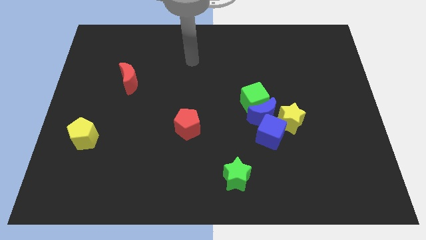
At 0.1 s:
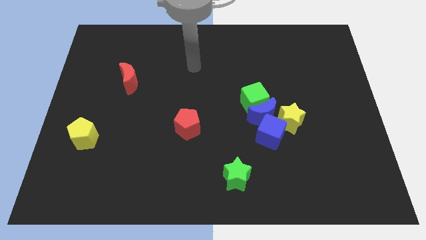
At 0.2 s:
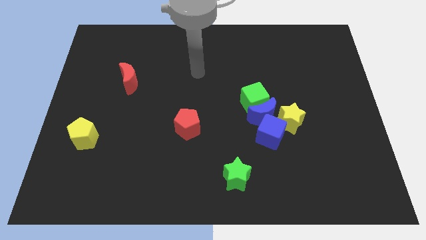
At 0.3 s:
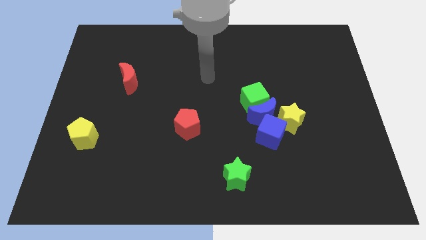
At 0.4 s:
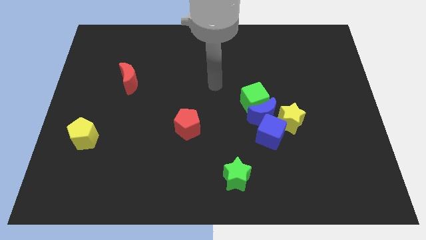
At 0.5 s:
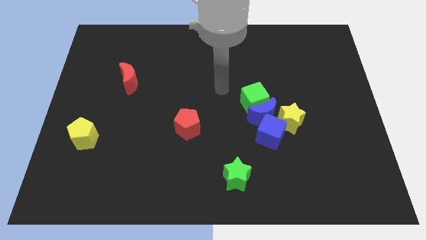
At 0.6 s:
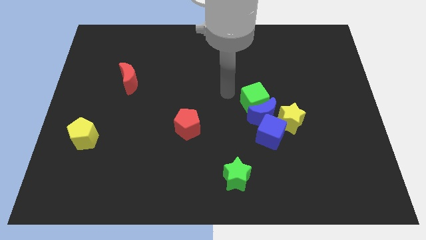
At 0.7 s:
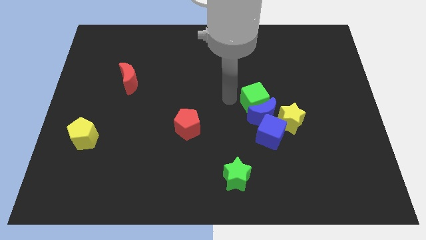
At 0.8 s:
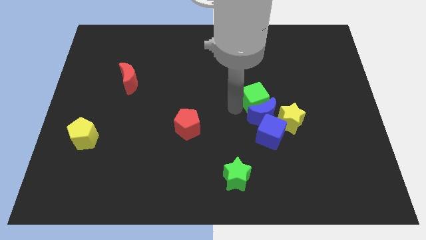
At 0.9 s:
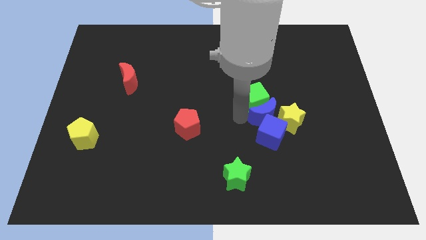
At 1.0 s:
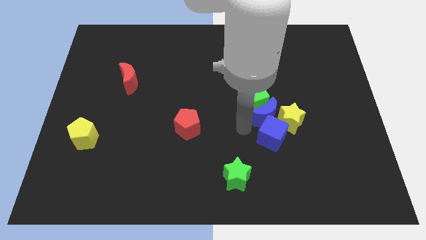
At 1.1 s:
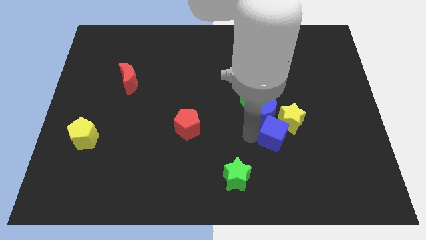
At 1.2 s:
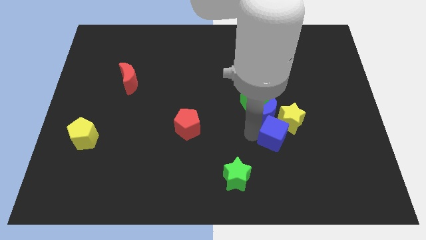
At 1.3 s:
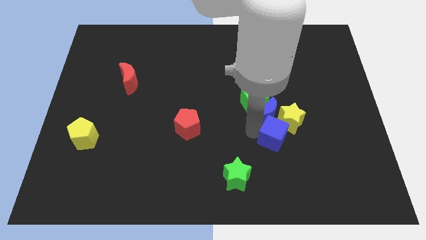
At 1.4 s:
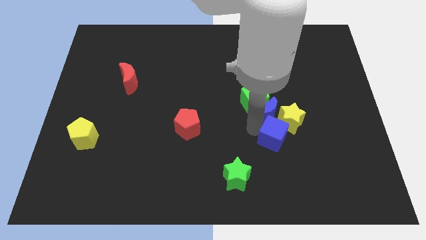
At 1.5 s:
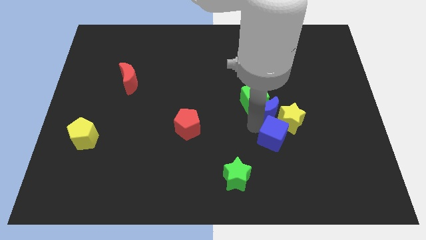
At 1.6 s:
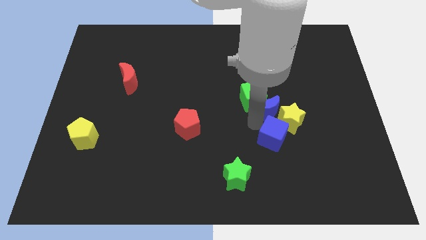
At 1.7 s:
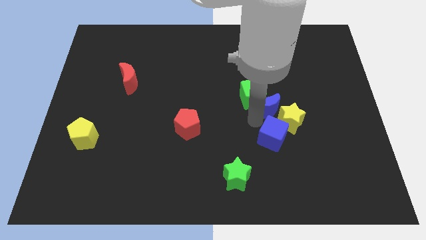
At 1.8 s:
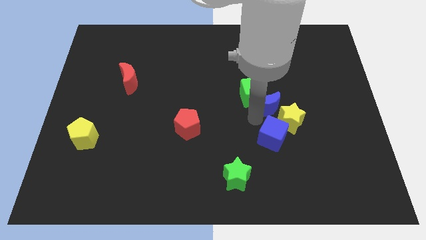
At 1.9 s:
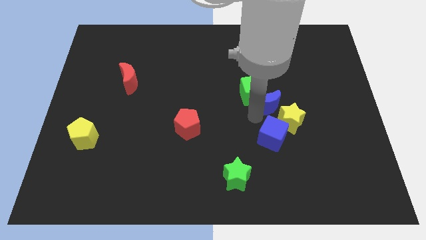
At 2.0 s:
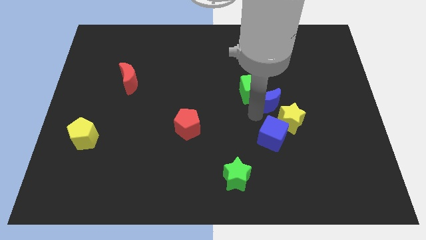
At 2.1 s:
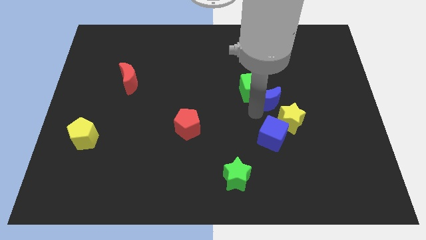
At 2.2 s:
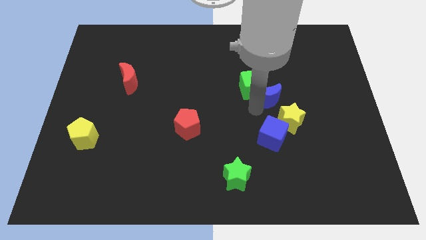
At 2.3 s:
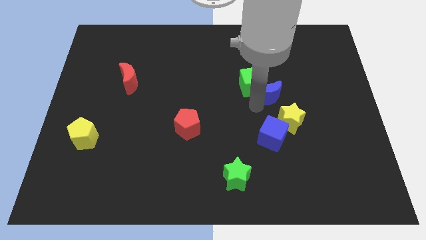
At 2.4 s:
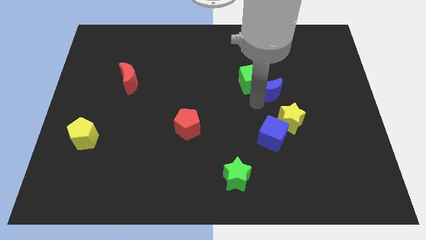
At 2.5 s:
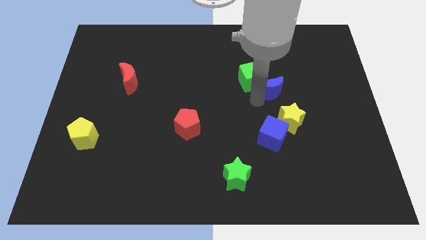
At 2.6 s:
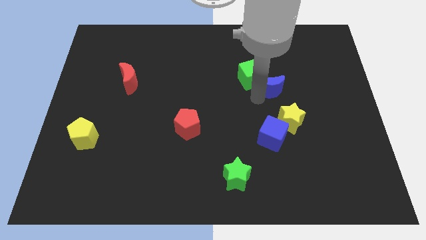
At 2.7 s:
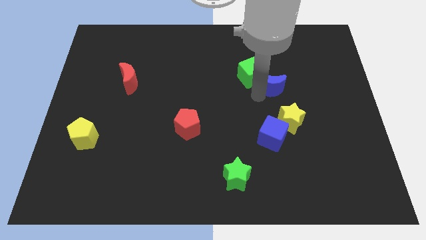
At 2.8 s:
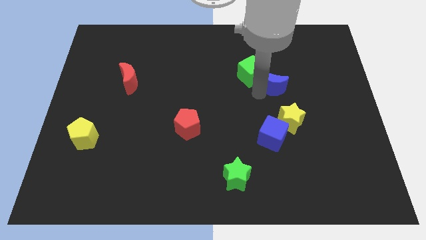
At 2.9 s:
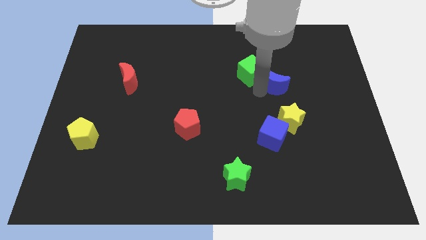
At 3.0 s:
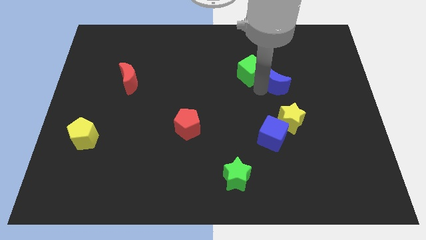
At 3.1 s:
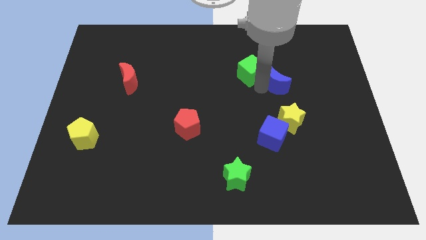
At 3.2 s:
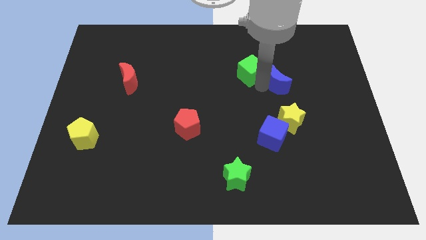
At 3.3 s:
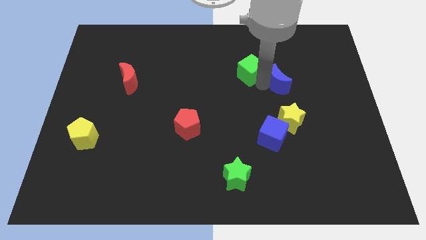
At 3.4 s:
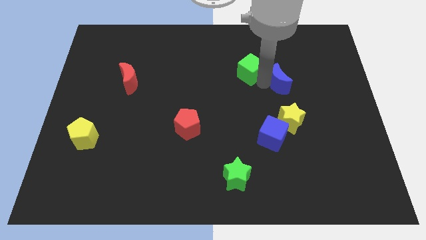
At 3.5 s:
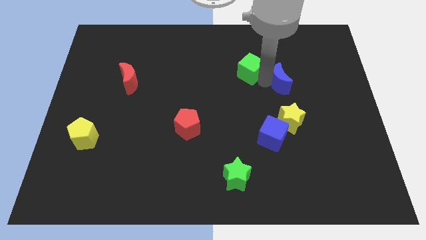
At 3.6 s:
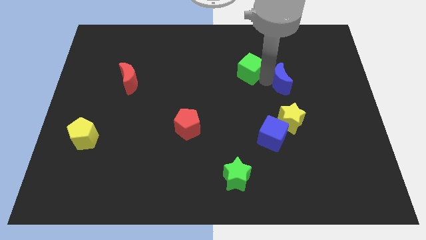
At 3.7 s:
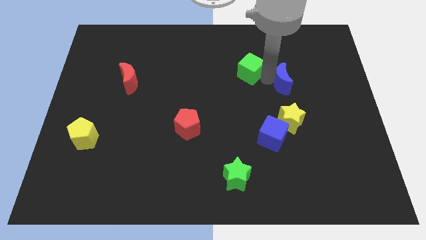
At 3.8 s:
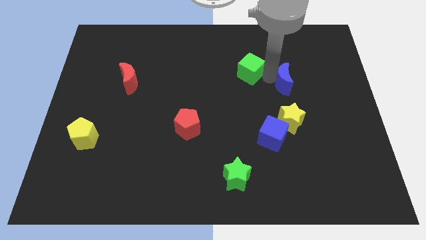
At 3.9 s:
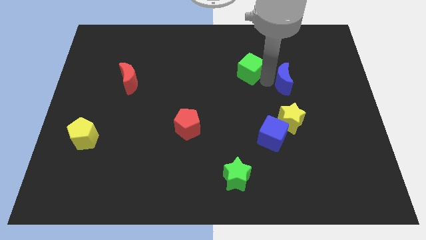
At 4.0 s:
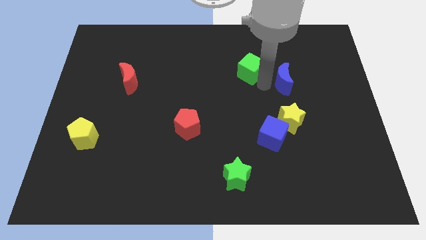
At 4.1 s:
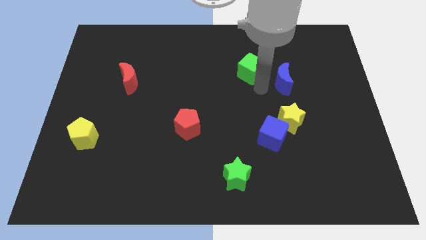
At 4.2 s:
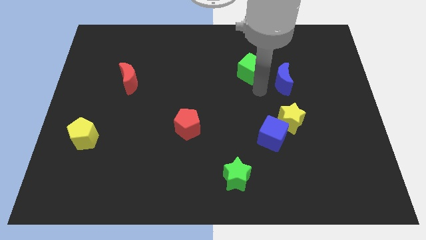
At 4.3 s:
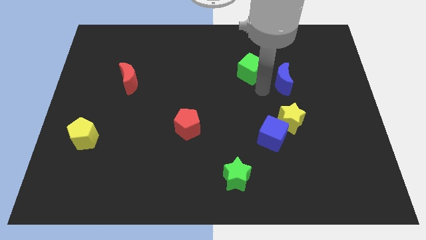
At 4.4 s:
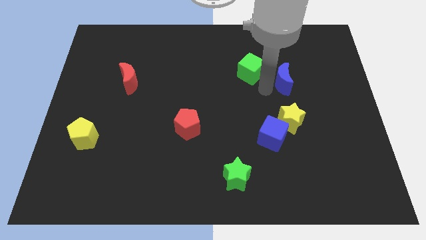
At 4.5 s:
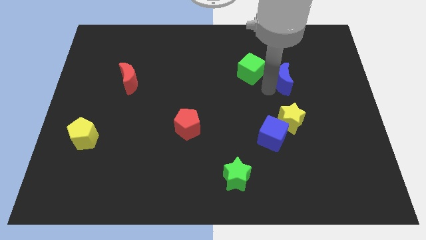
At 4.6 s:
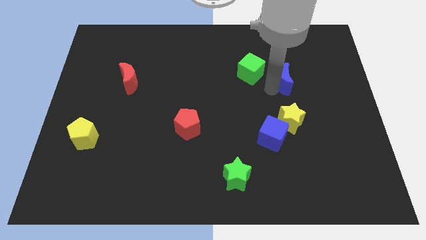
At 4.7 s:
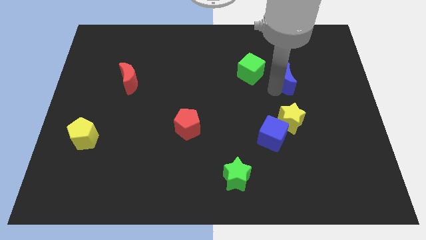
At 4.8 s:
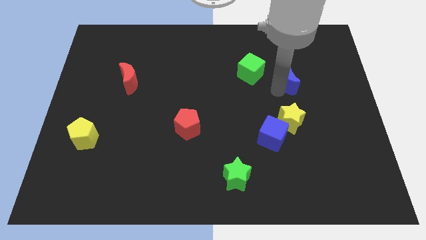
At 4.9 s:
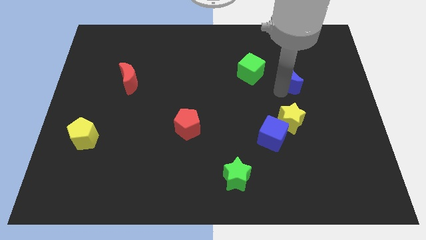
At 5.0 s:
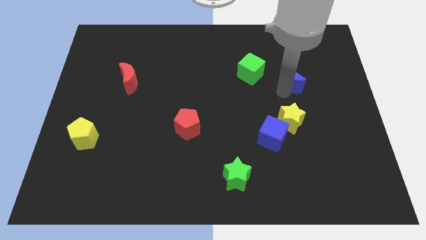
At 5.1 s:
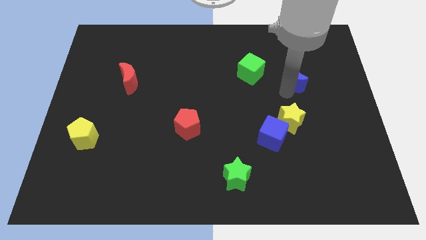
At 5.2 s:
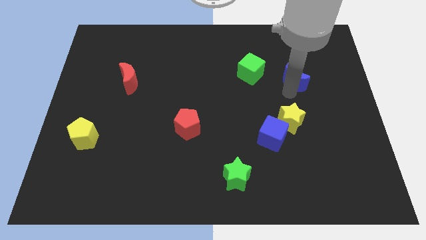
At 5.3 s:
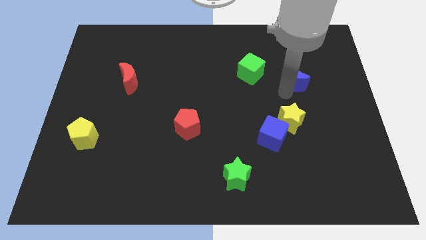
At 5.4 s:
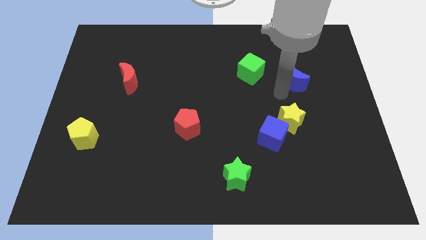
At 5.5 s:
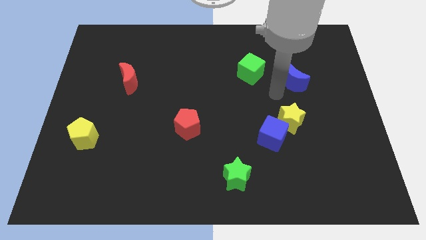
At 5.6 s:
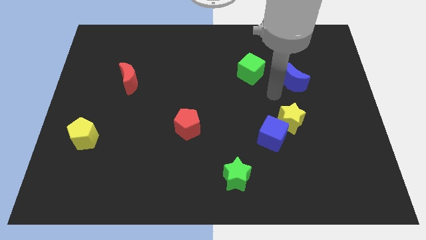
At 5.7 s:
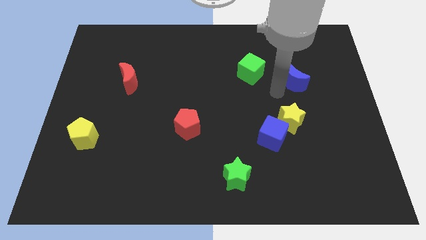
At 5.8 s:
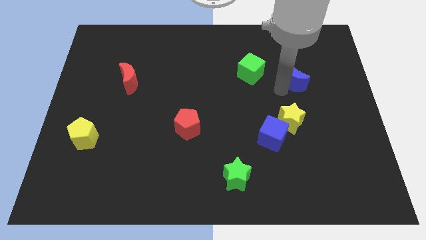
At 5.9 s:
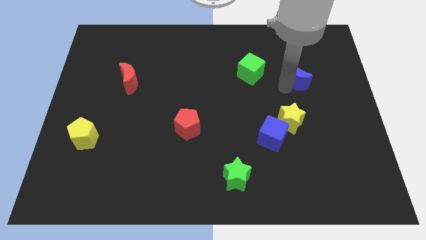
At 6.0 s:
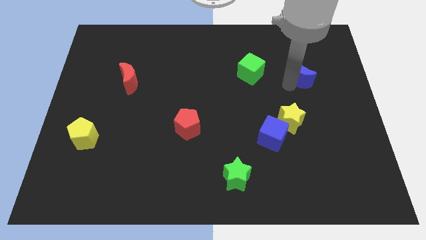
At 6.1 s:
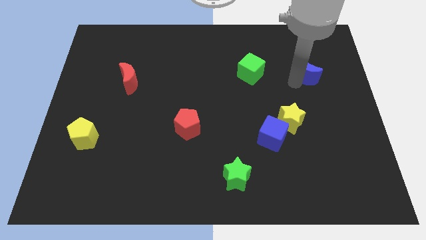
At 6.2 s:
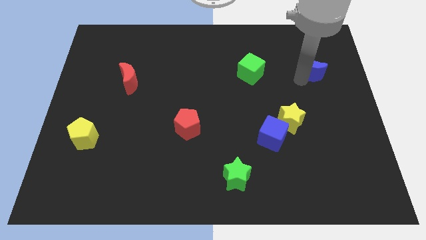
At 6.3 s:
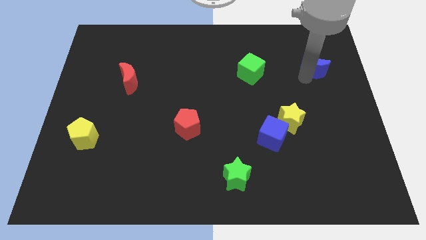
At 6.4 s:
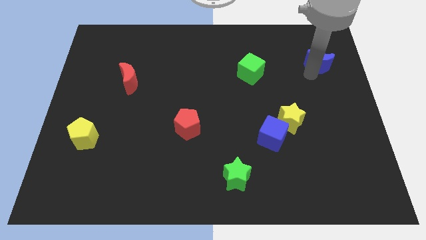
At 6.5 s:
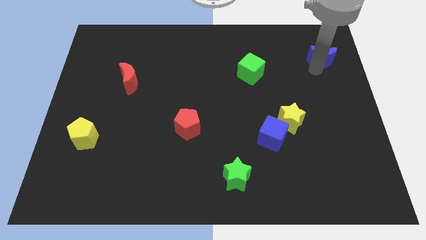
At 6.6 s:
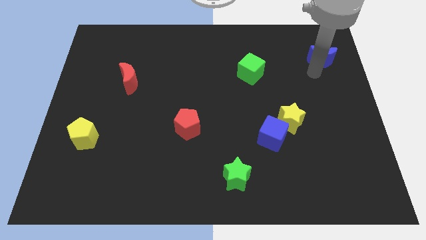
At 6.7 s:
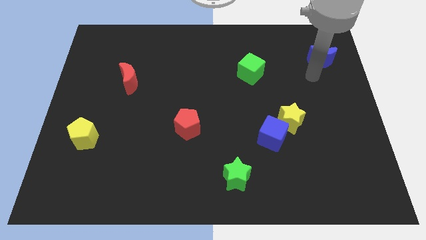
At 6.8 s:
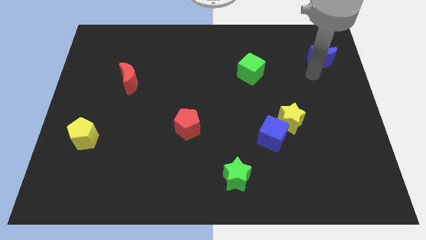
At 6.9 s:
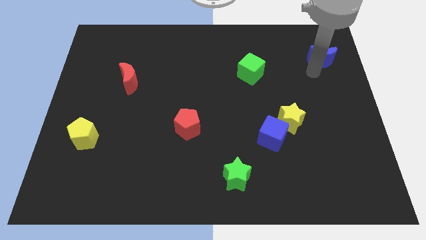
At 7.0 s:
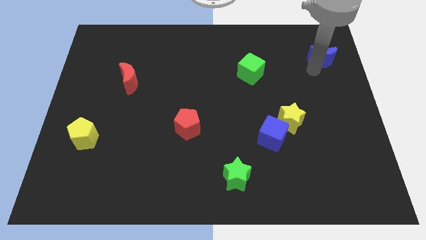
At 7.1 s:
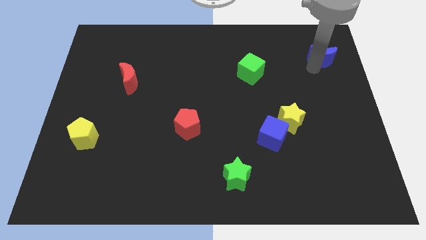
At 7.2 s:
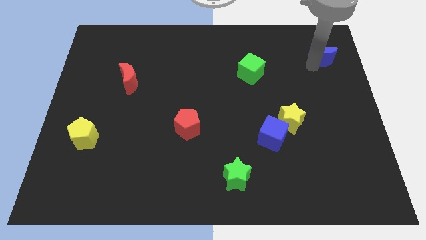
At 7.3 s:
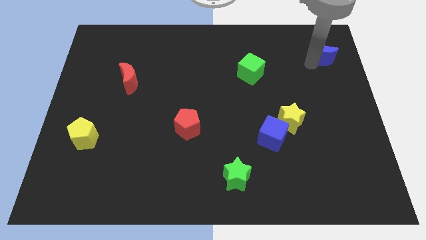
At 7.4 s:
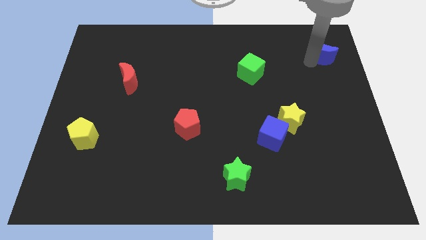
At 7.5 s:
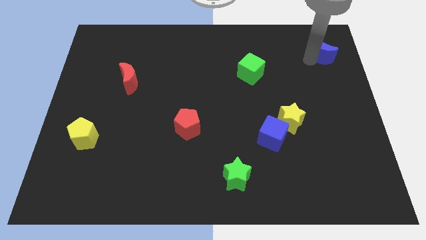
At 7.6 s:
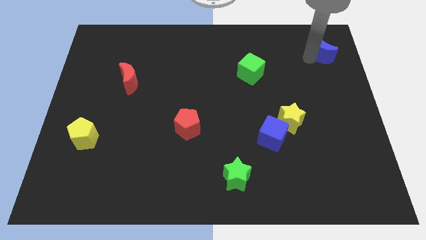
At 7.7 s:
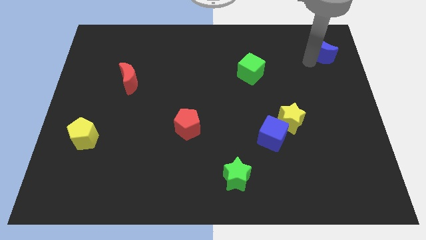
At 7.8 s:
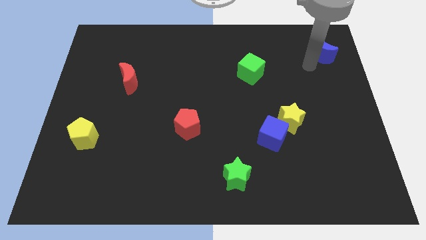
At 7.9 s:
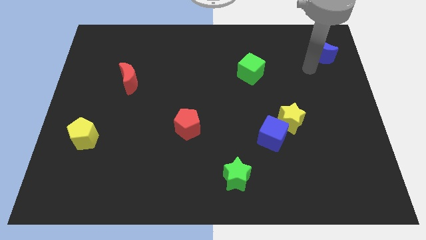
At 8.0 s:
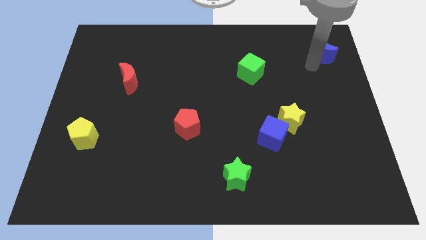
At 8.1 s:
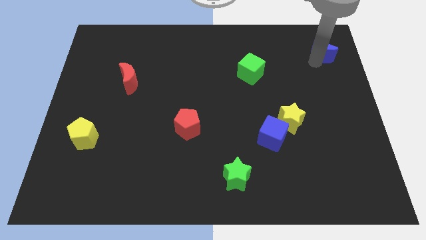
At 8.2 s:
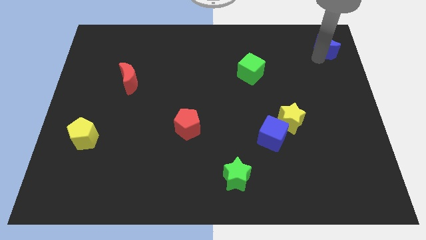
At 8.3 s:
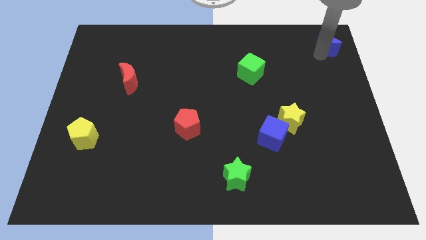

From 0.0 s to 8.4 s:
move the blue moon to the upper right corner
